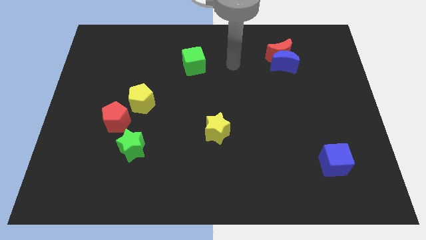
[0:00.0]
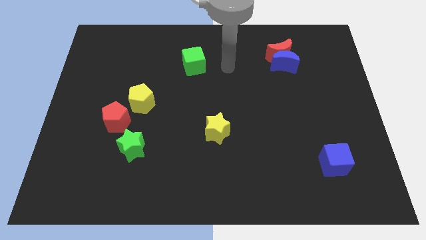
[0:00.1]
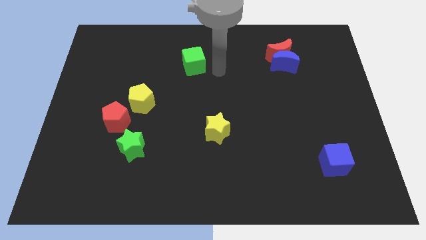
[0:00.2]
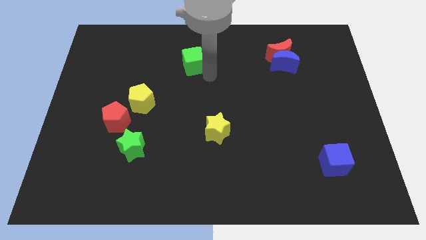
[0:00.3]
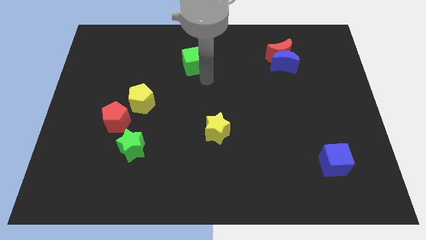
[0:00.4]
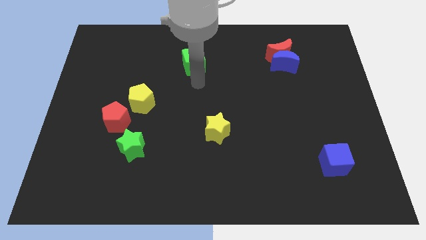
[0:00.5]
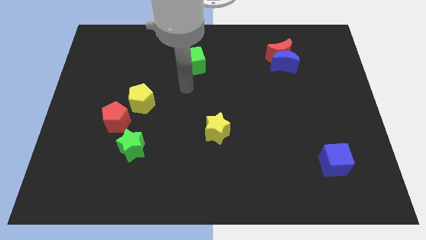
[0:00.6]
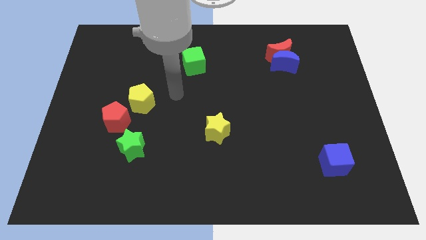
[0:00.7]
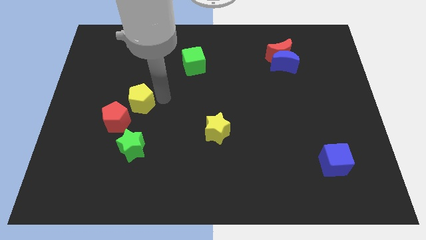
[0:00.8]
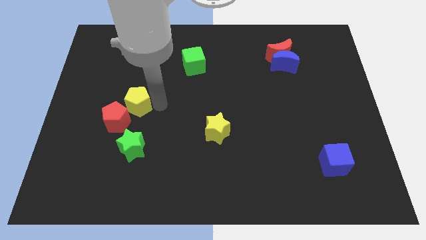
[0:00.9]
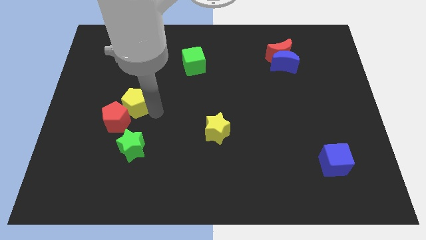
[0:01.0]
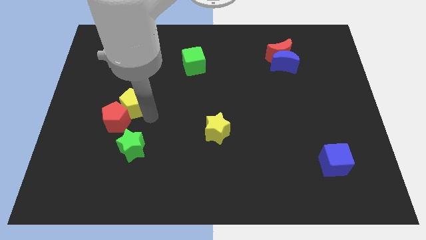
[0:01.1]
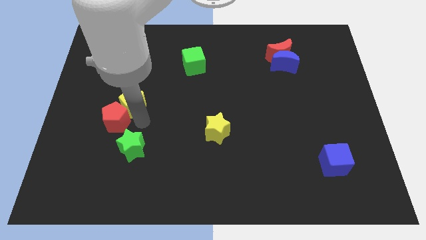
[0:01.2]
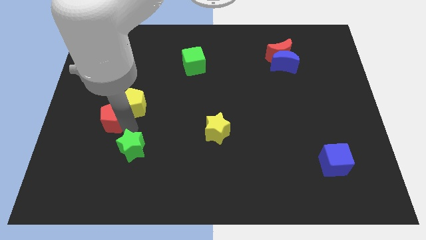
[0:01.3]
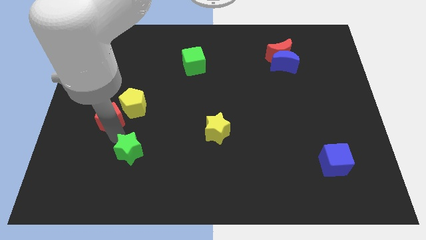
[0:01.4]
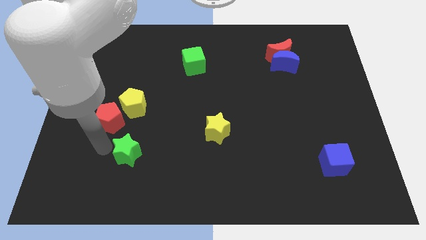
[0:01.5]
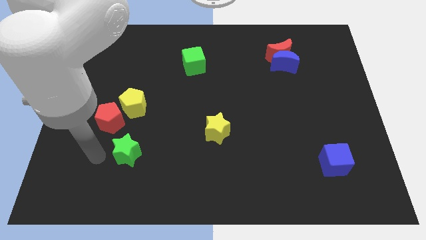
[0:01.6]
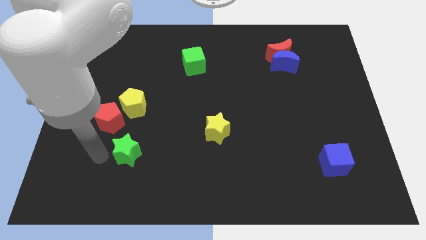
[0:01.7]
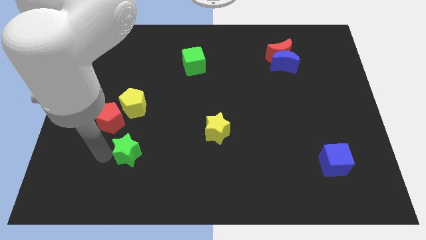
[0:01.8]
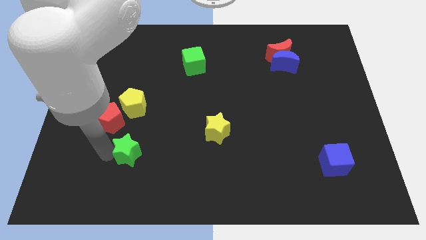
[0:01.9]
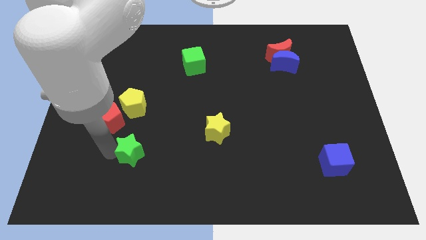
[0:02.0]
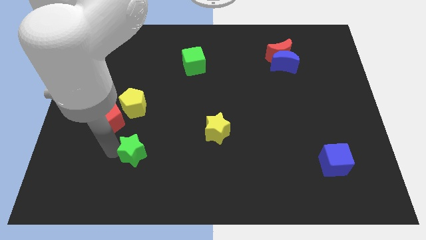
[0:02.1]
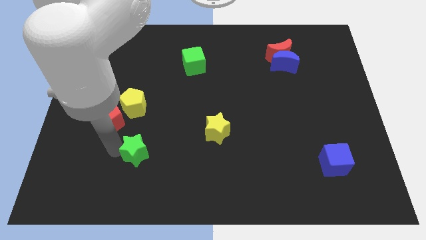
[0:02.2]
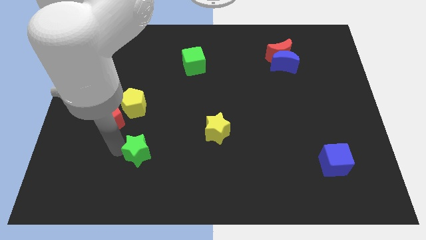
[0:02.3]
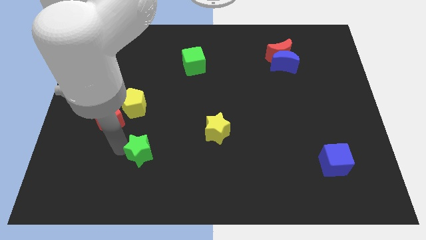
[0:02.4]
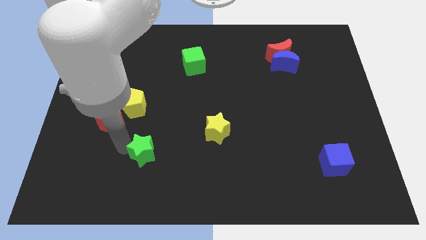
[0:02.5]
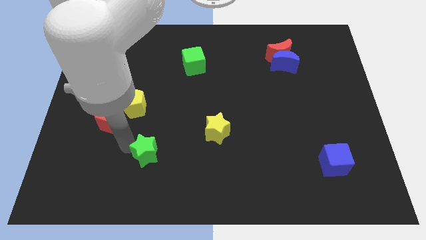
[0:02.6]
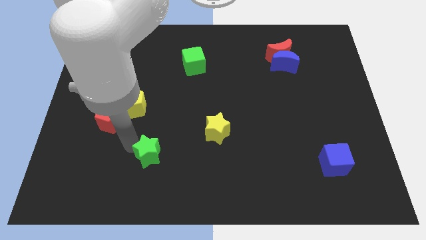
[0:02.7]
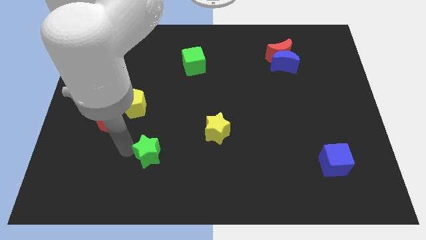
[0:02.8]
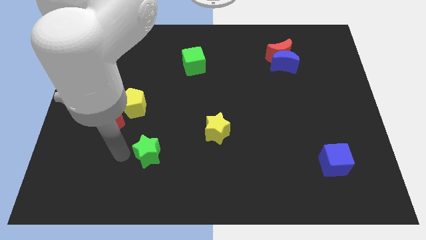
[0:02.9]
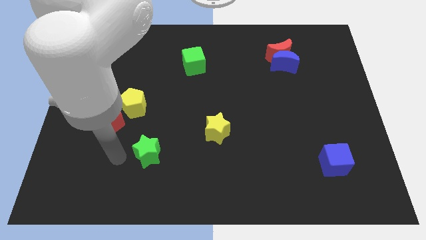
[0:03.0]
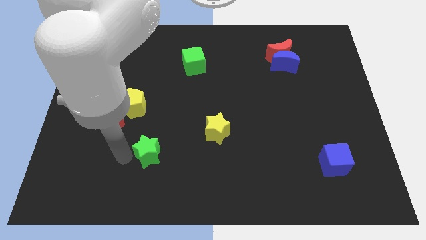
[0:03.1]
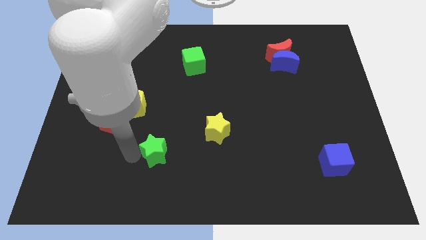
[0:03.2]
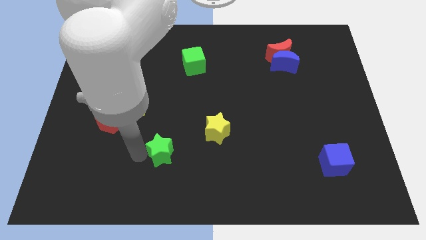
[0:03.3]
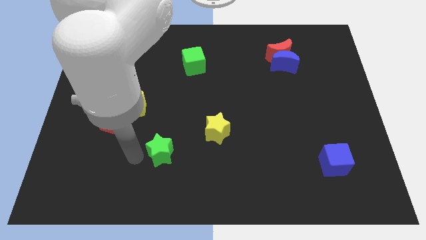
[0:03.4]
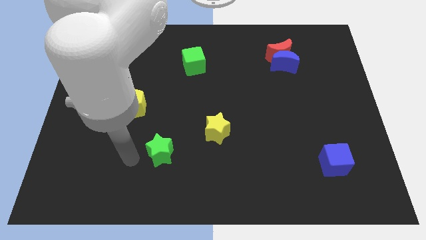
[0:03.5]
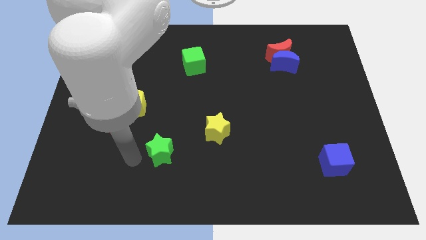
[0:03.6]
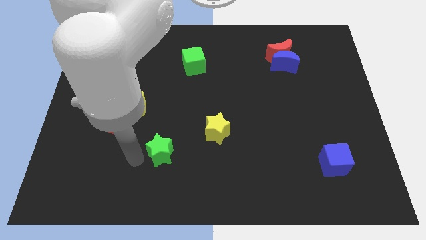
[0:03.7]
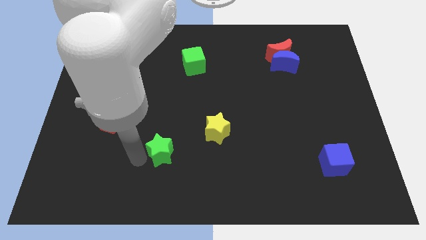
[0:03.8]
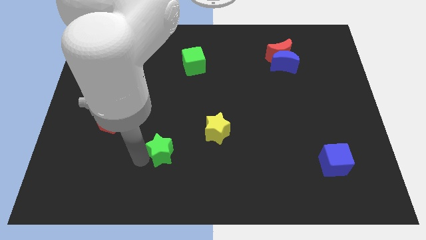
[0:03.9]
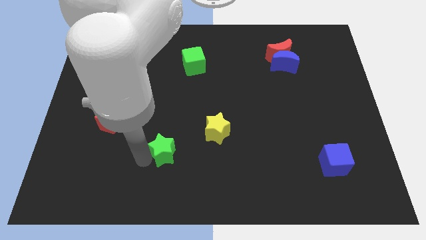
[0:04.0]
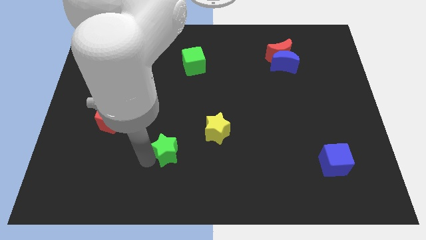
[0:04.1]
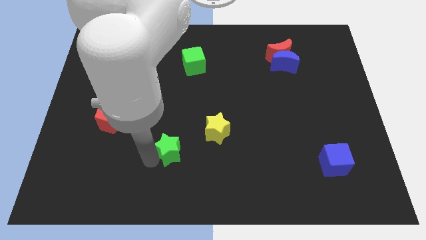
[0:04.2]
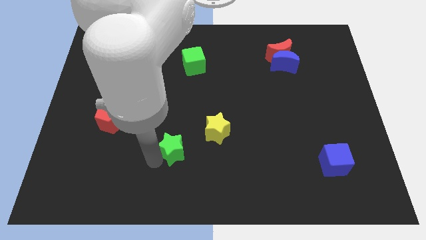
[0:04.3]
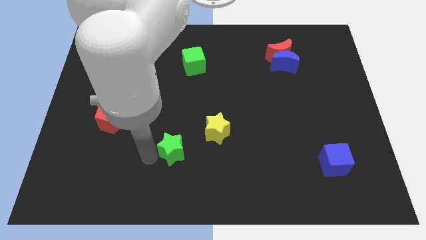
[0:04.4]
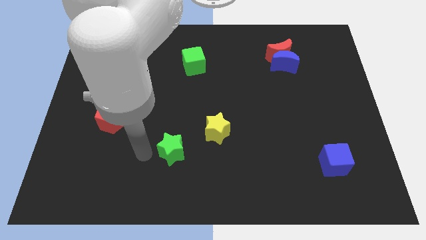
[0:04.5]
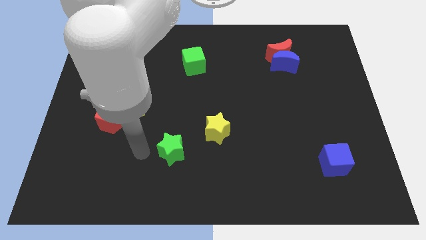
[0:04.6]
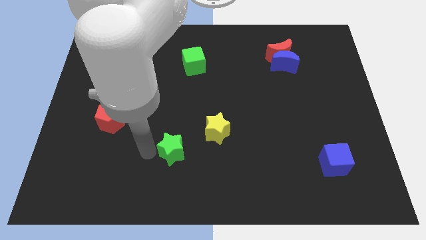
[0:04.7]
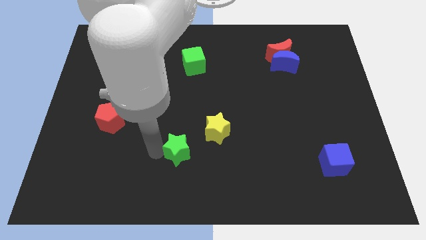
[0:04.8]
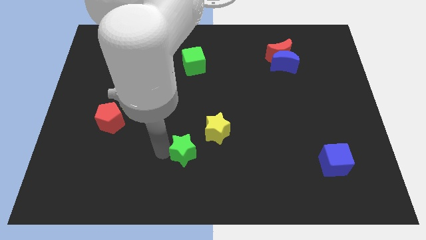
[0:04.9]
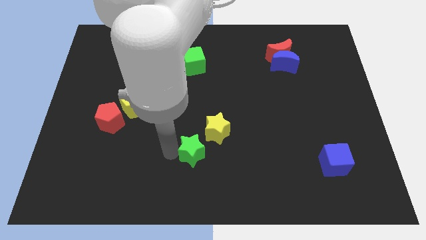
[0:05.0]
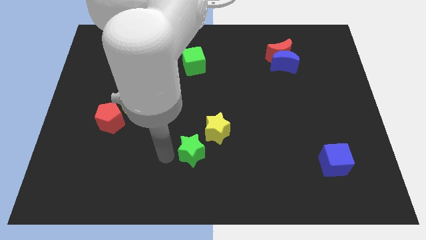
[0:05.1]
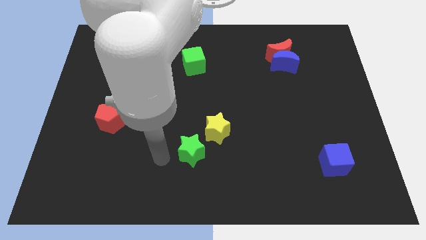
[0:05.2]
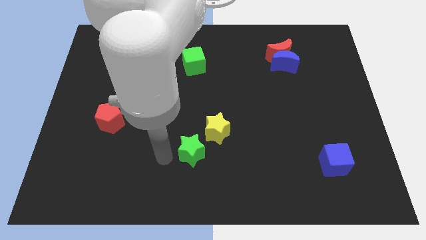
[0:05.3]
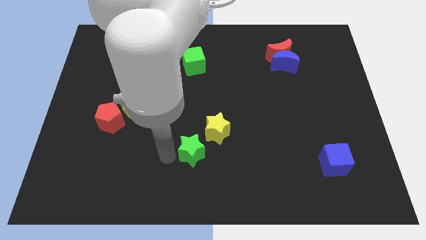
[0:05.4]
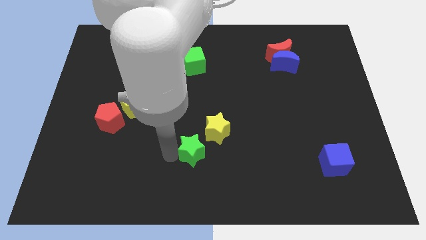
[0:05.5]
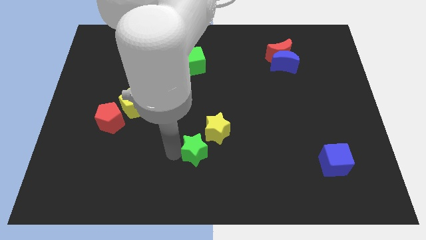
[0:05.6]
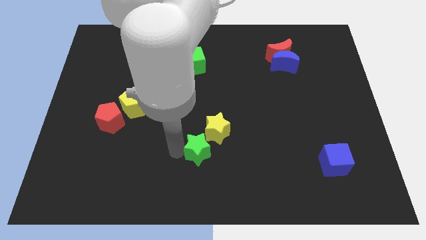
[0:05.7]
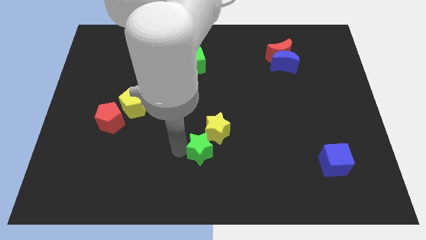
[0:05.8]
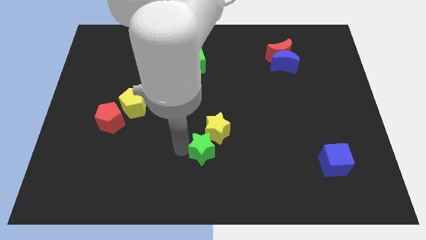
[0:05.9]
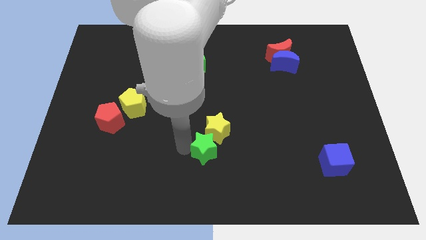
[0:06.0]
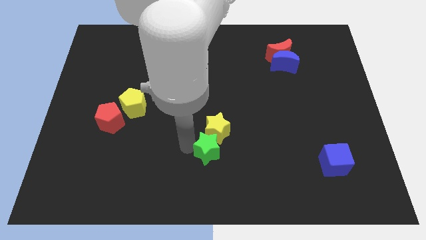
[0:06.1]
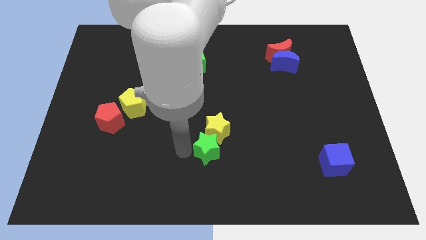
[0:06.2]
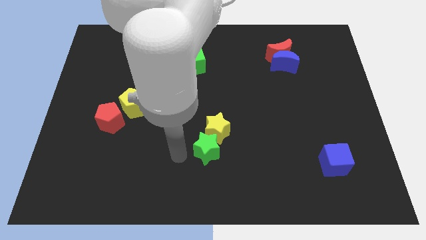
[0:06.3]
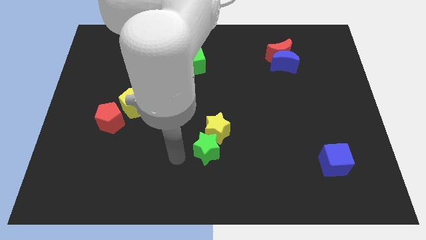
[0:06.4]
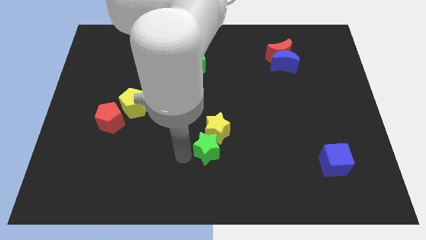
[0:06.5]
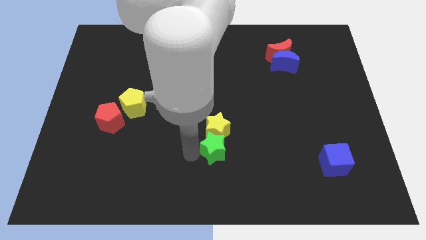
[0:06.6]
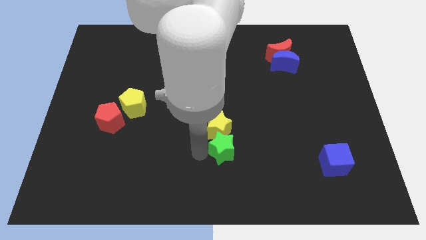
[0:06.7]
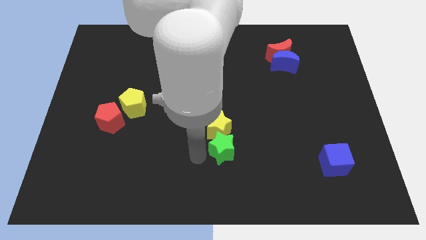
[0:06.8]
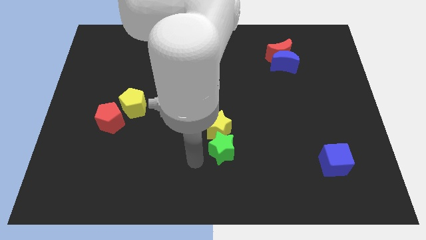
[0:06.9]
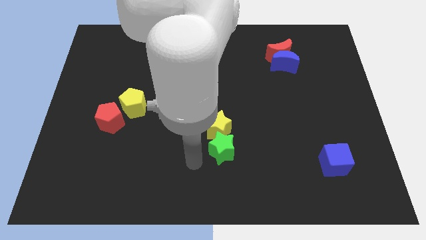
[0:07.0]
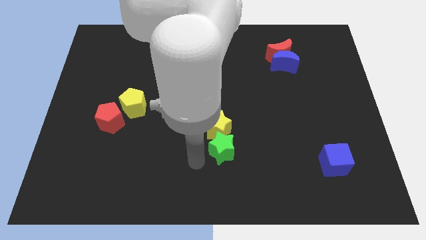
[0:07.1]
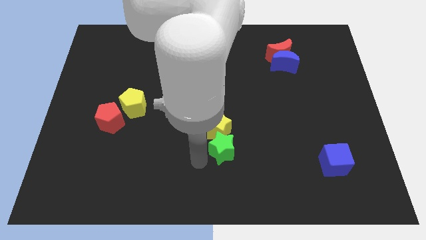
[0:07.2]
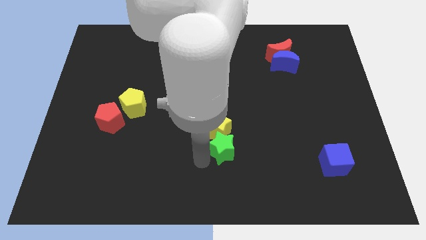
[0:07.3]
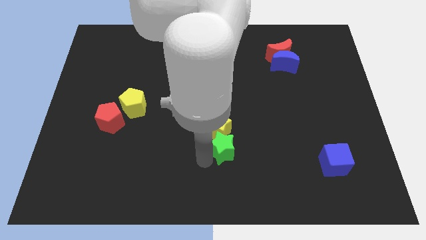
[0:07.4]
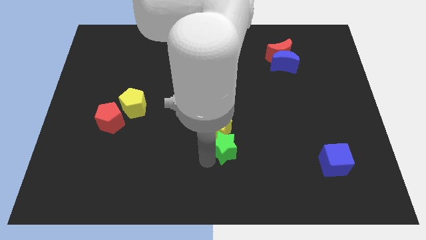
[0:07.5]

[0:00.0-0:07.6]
push the green star to the right

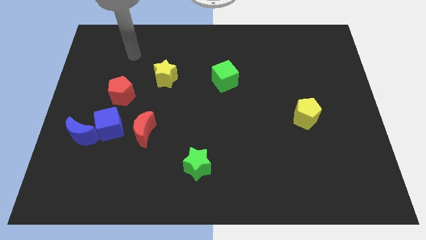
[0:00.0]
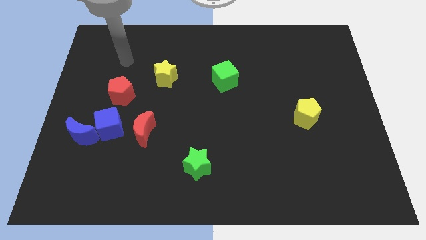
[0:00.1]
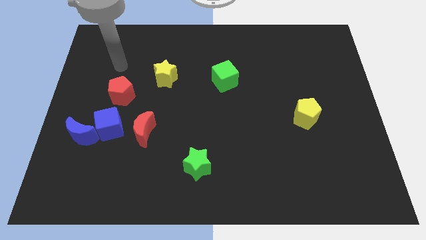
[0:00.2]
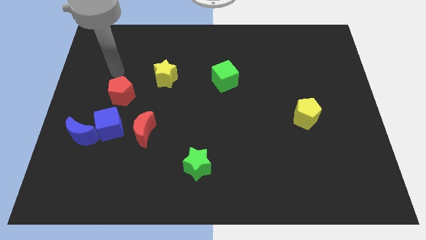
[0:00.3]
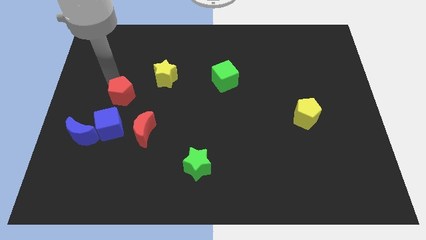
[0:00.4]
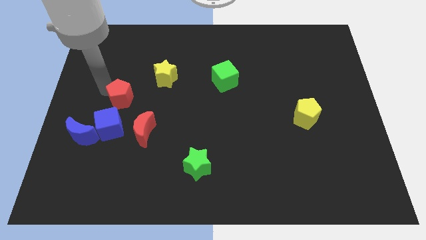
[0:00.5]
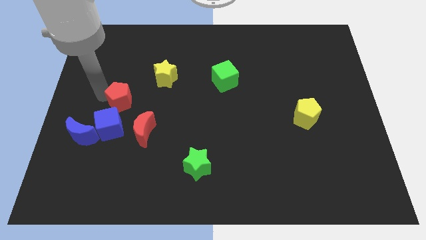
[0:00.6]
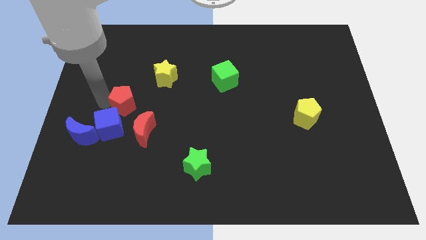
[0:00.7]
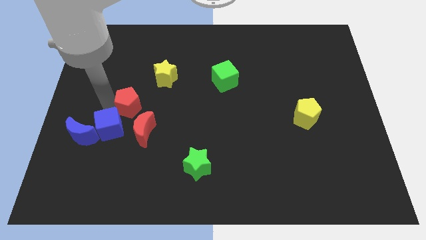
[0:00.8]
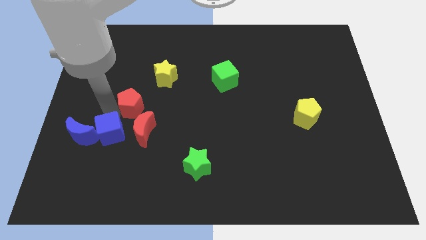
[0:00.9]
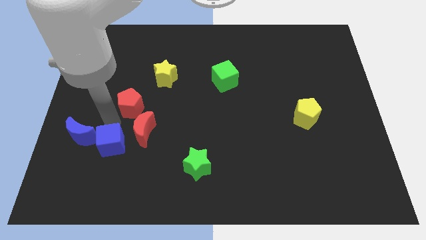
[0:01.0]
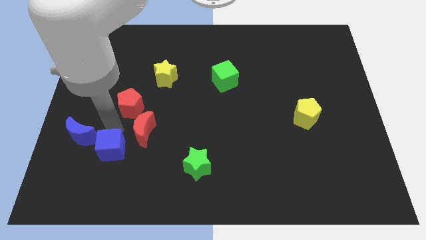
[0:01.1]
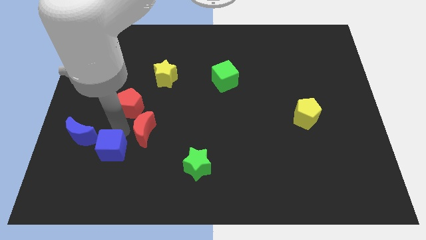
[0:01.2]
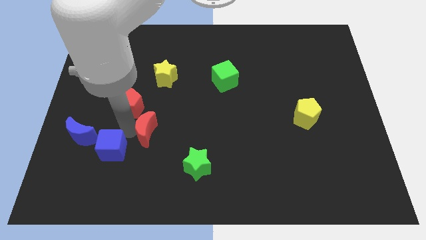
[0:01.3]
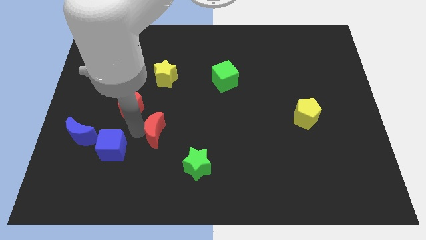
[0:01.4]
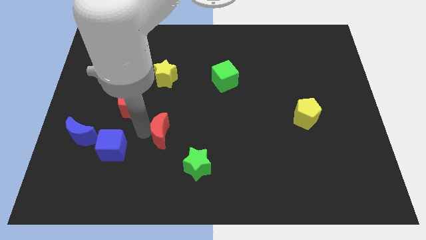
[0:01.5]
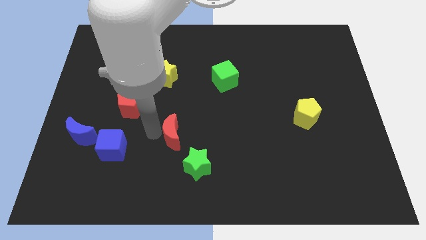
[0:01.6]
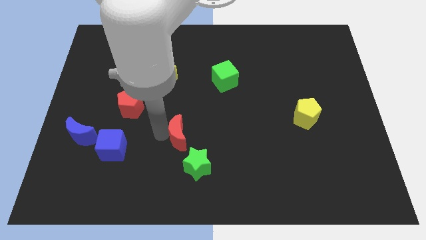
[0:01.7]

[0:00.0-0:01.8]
move the red moon slightly to the right
